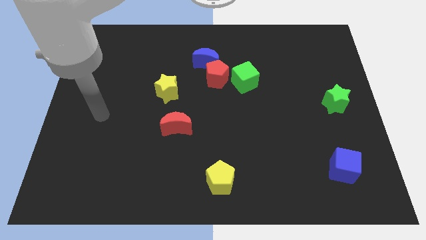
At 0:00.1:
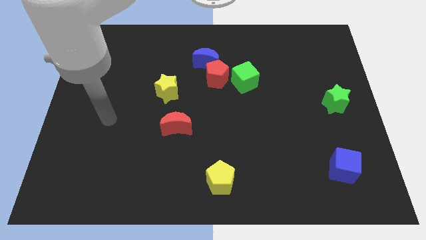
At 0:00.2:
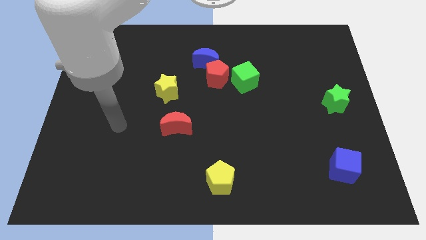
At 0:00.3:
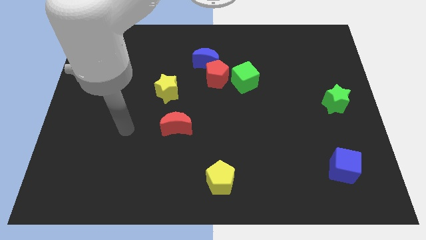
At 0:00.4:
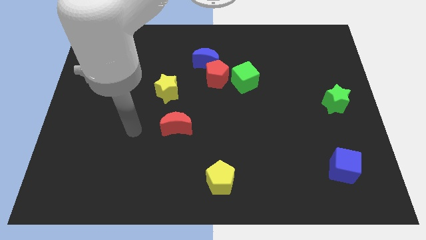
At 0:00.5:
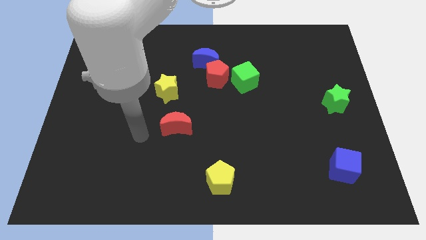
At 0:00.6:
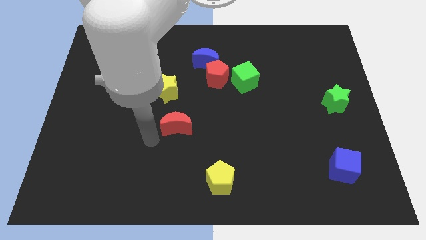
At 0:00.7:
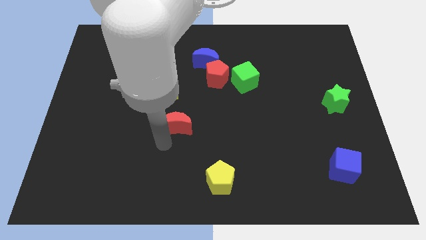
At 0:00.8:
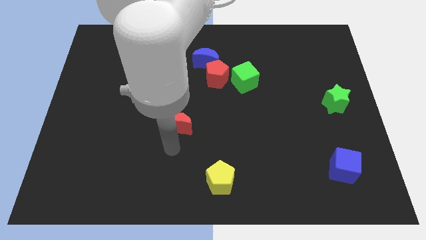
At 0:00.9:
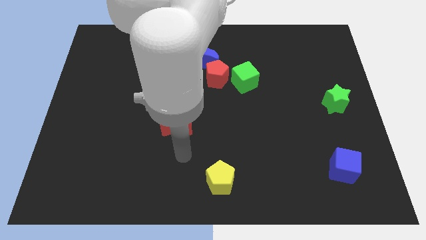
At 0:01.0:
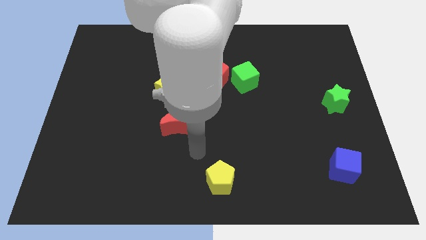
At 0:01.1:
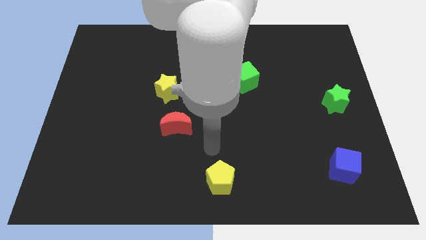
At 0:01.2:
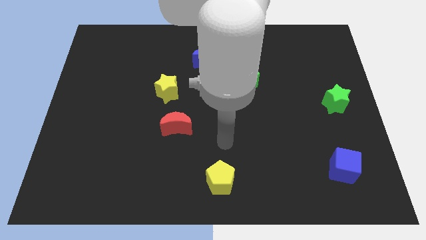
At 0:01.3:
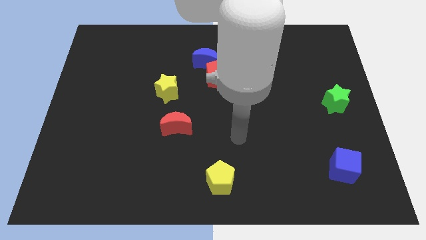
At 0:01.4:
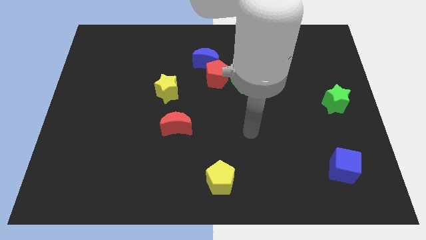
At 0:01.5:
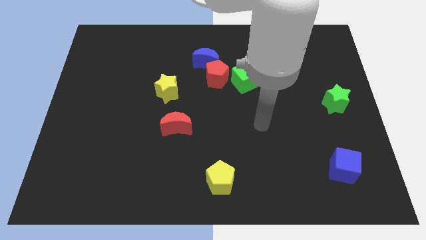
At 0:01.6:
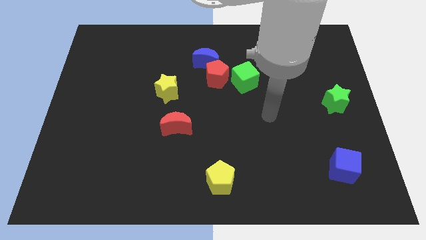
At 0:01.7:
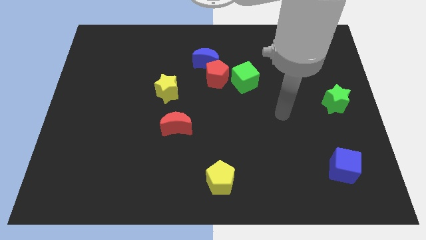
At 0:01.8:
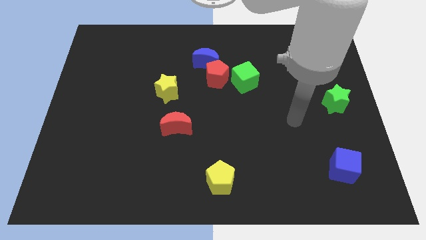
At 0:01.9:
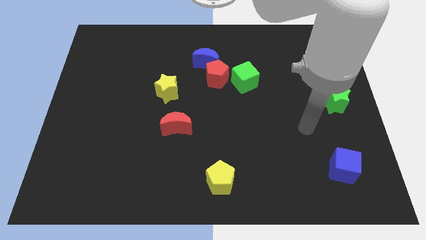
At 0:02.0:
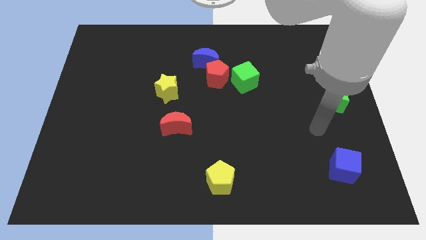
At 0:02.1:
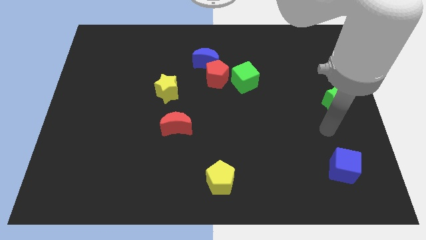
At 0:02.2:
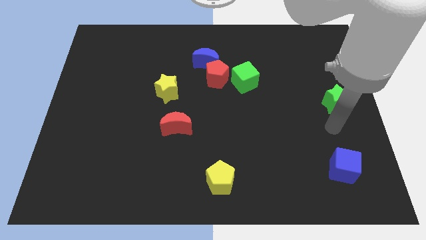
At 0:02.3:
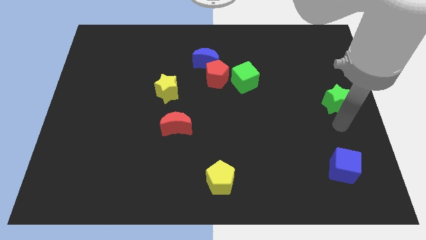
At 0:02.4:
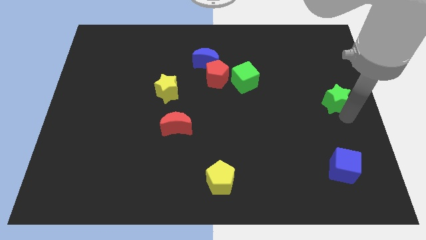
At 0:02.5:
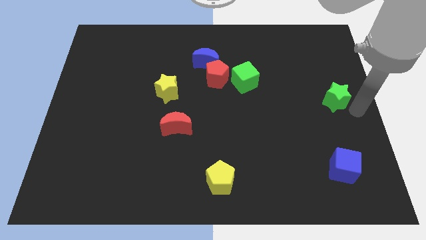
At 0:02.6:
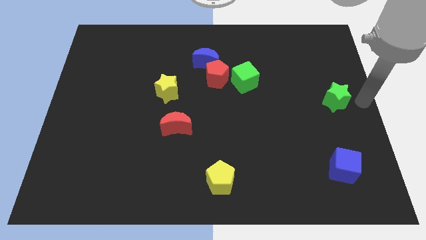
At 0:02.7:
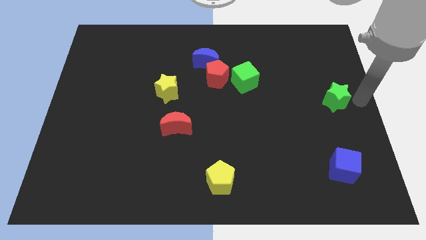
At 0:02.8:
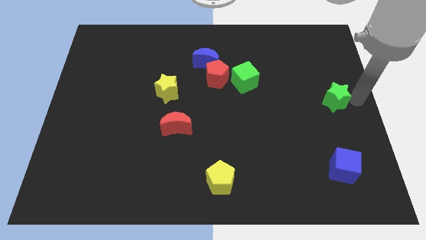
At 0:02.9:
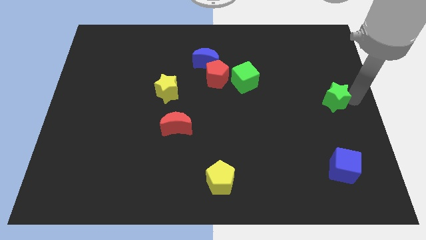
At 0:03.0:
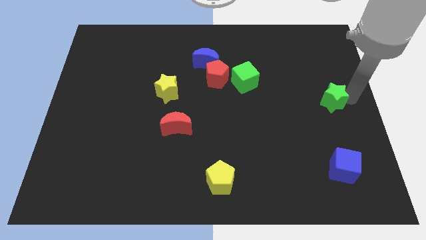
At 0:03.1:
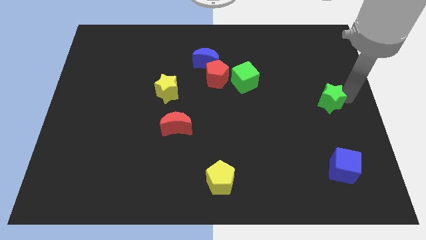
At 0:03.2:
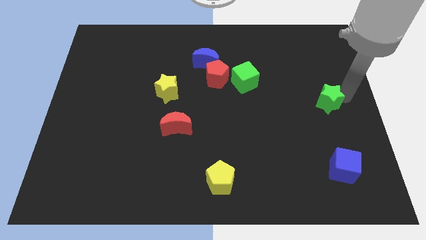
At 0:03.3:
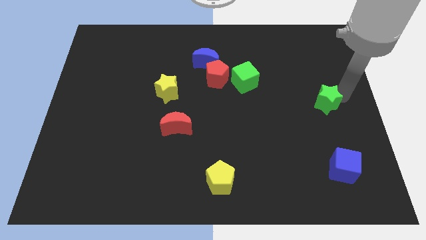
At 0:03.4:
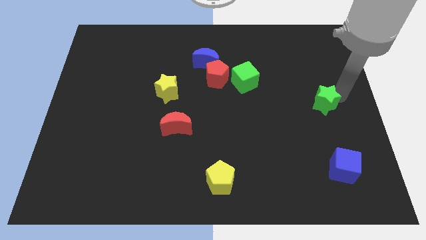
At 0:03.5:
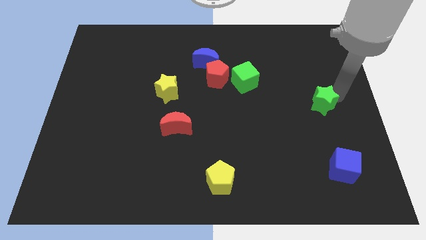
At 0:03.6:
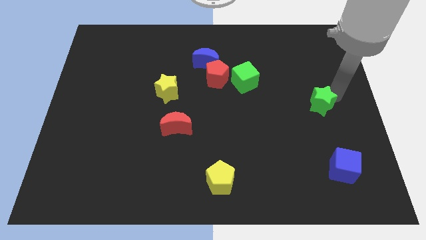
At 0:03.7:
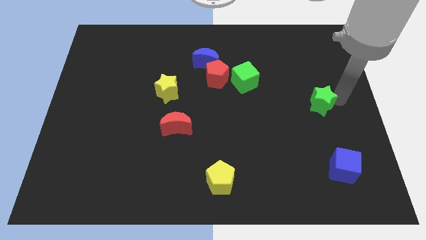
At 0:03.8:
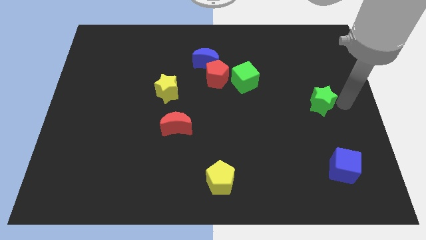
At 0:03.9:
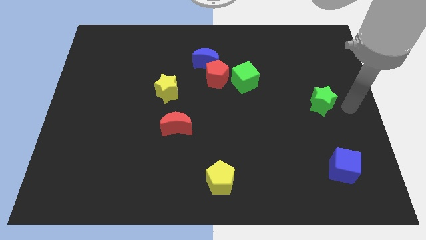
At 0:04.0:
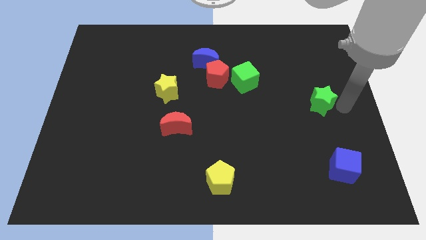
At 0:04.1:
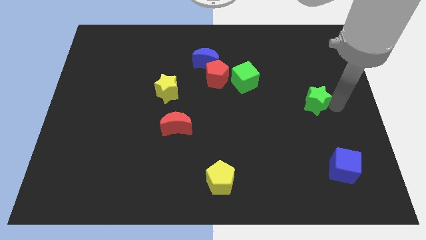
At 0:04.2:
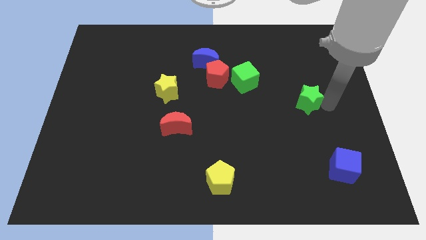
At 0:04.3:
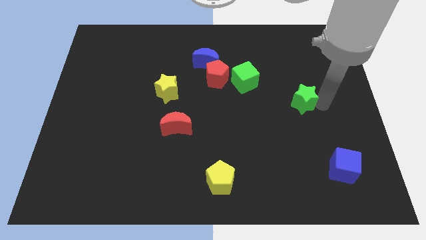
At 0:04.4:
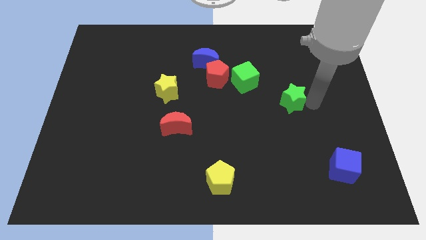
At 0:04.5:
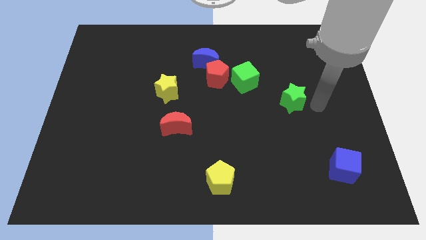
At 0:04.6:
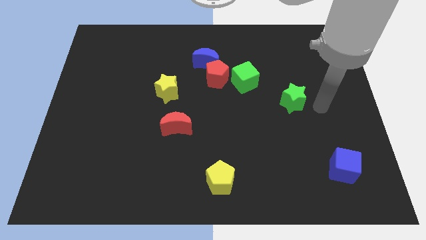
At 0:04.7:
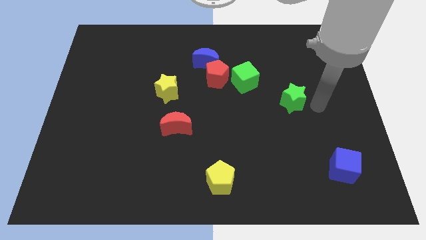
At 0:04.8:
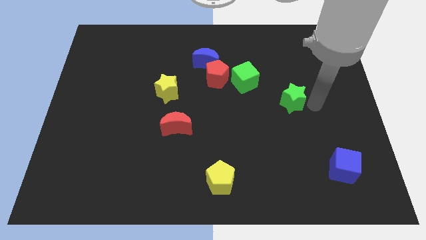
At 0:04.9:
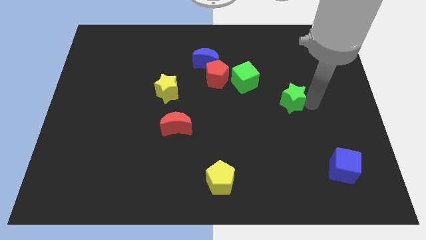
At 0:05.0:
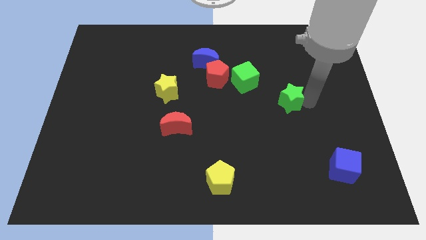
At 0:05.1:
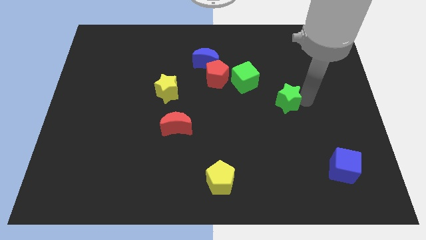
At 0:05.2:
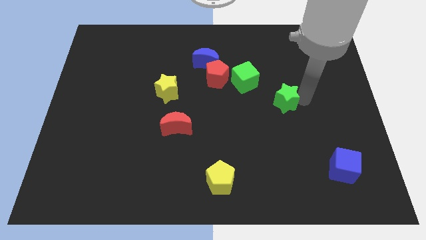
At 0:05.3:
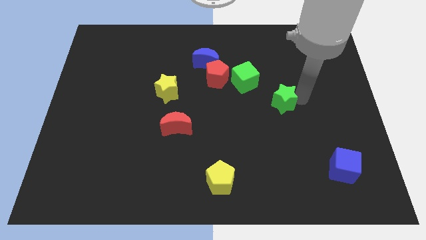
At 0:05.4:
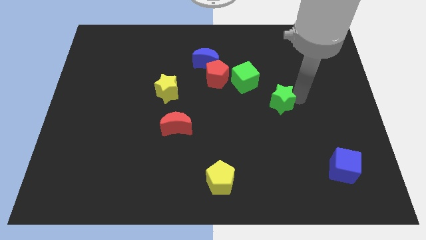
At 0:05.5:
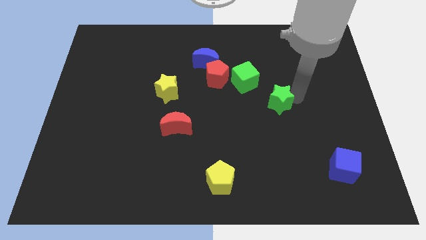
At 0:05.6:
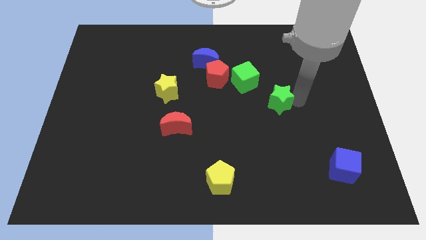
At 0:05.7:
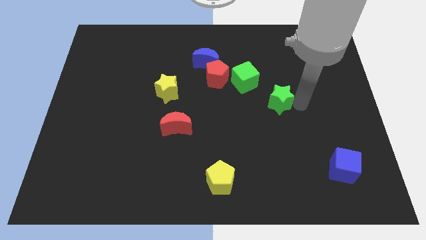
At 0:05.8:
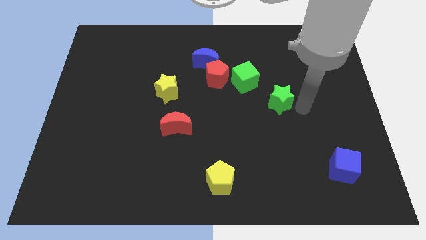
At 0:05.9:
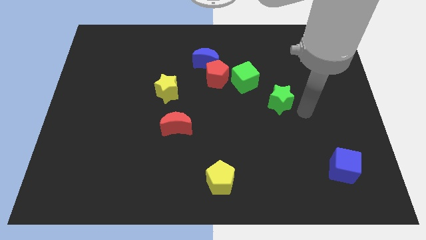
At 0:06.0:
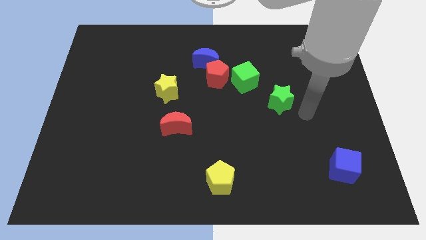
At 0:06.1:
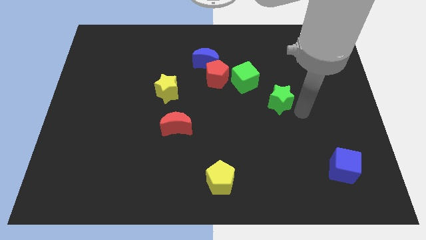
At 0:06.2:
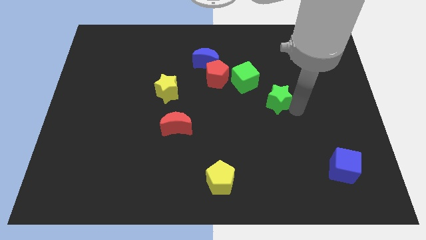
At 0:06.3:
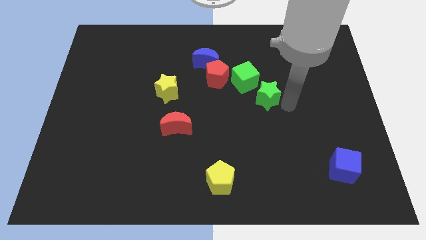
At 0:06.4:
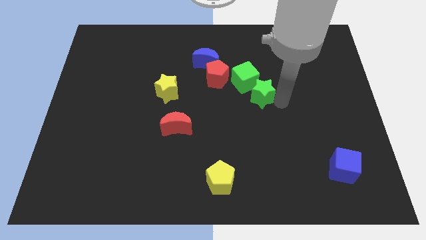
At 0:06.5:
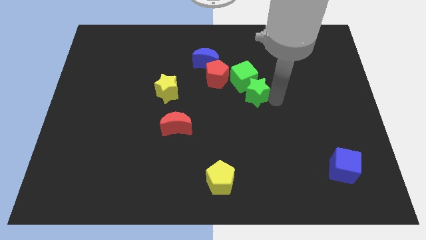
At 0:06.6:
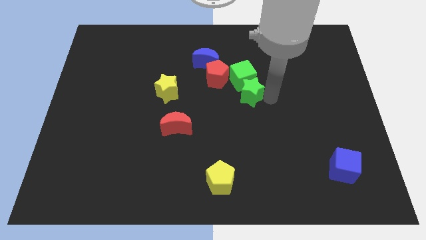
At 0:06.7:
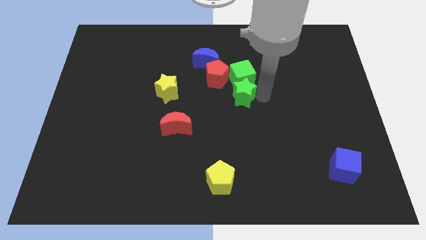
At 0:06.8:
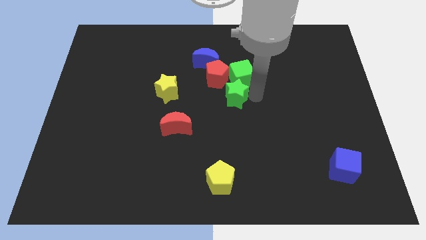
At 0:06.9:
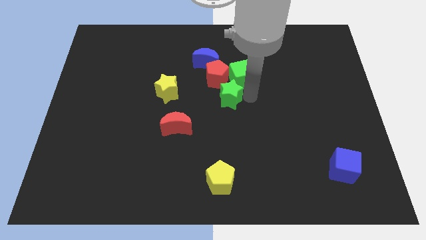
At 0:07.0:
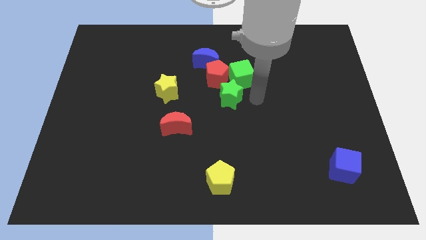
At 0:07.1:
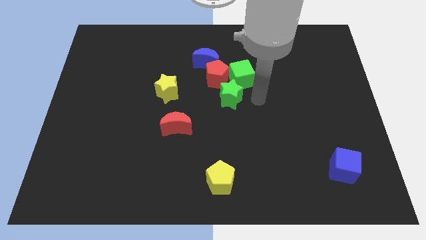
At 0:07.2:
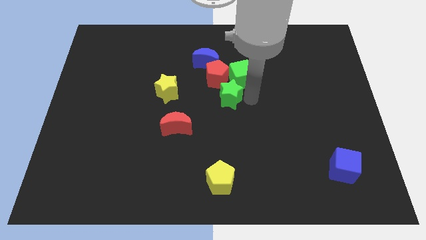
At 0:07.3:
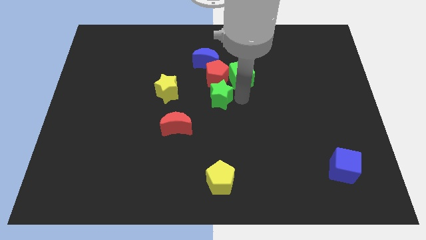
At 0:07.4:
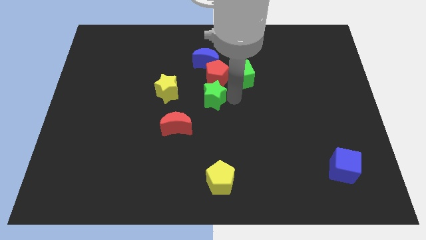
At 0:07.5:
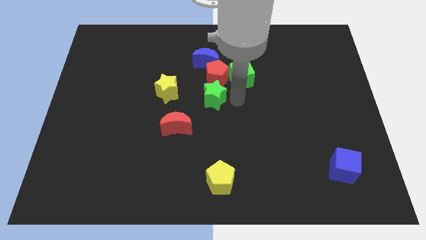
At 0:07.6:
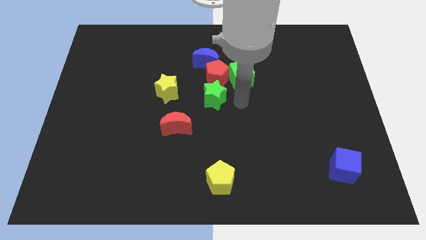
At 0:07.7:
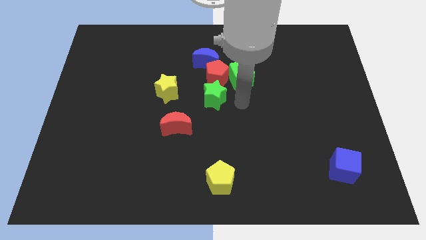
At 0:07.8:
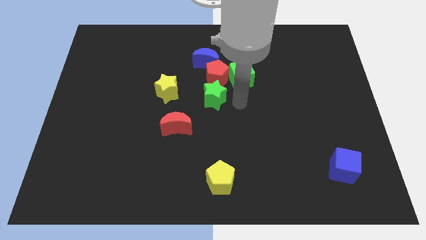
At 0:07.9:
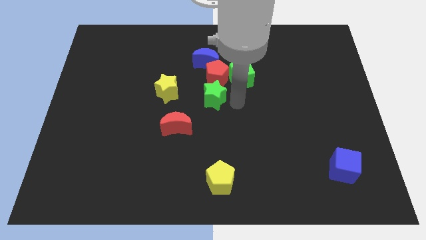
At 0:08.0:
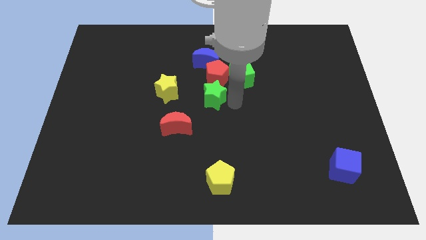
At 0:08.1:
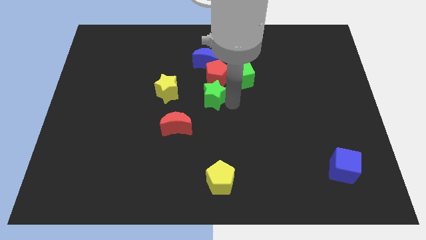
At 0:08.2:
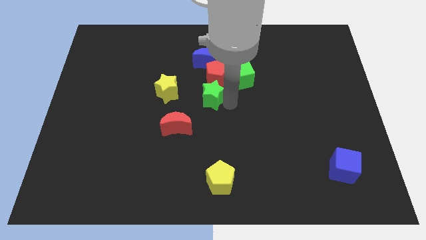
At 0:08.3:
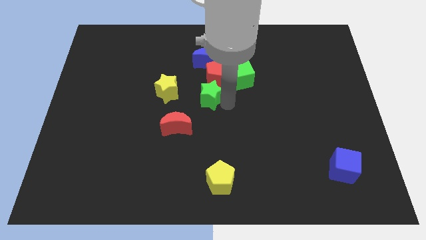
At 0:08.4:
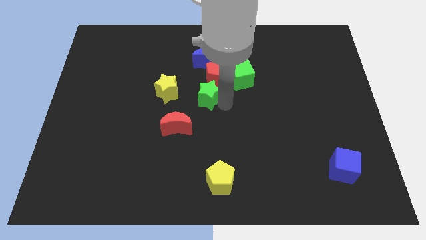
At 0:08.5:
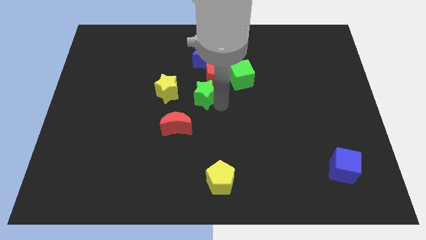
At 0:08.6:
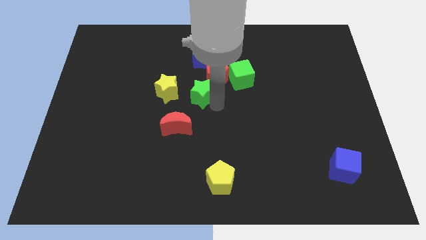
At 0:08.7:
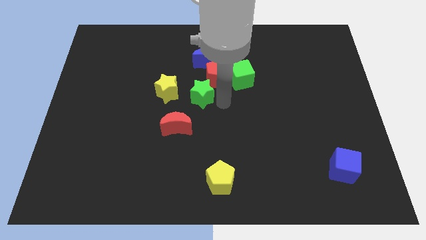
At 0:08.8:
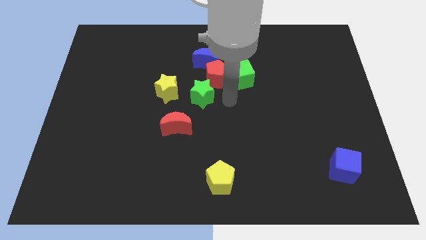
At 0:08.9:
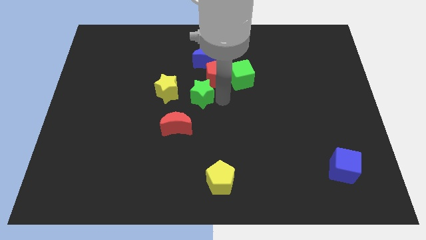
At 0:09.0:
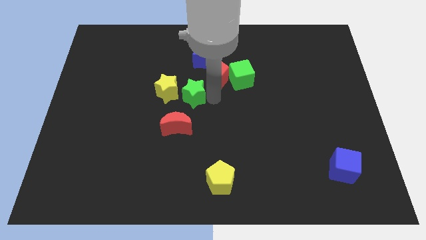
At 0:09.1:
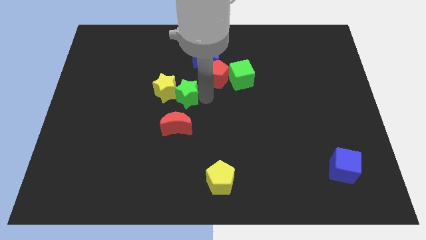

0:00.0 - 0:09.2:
move the green star to the yellow star
